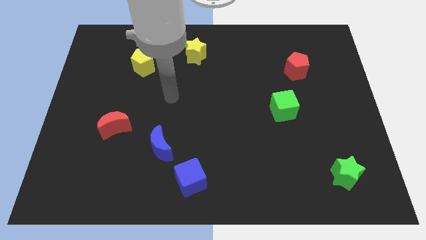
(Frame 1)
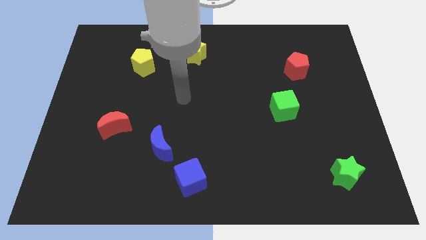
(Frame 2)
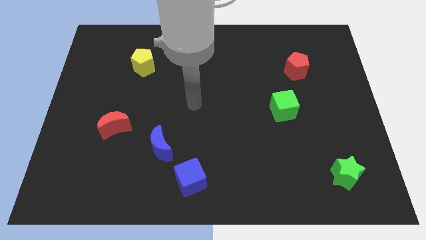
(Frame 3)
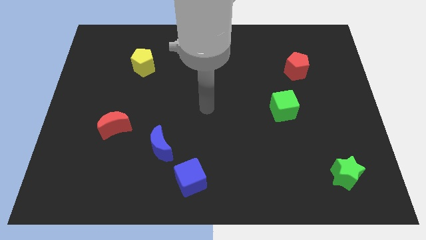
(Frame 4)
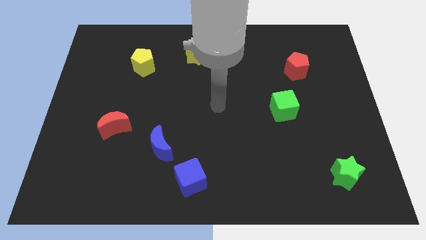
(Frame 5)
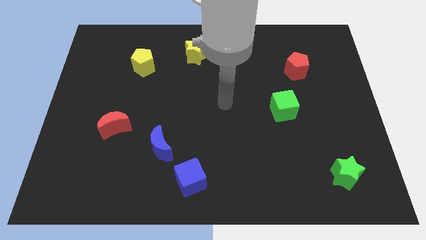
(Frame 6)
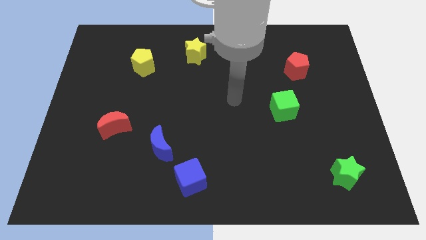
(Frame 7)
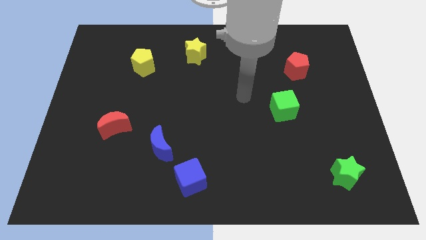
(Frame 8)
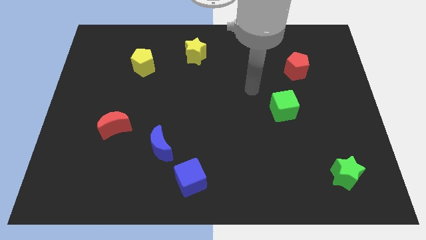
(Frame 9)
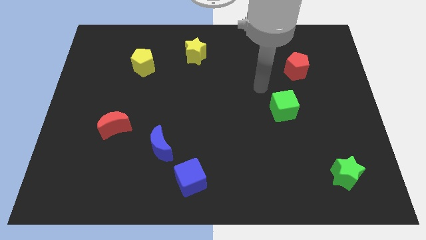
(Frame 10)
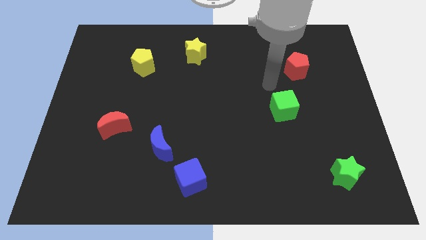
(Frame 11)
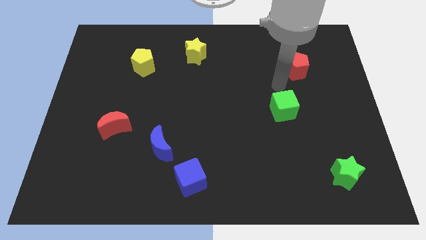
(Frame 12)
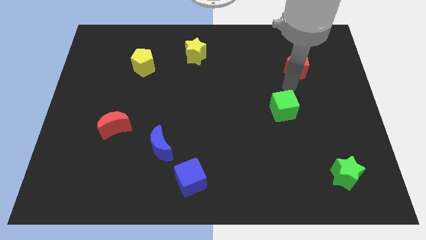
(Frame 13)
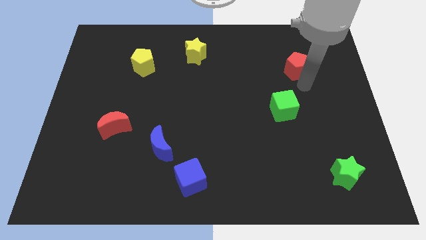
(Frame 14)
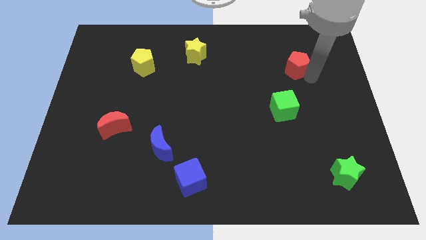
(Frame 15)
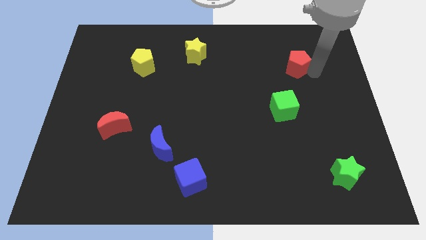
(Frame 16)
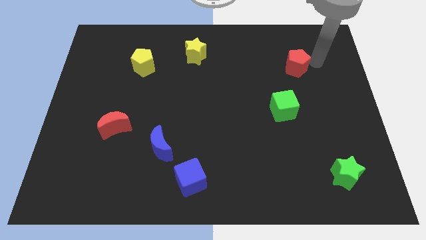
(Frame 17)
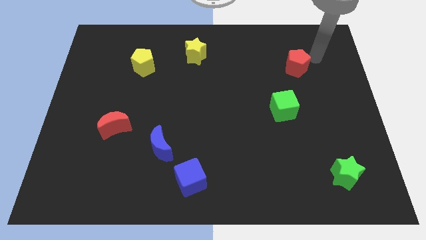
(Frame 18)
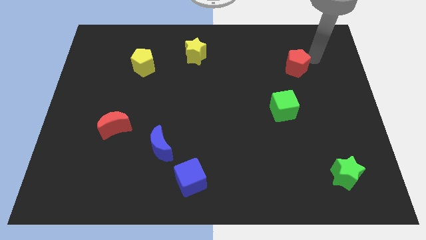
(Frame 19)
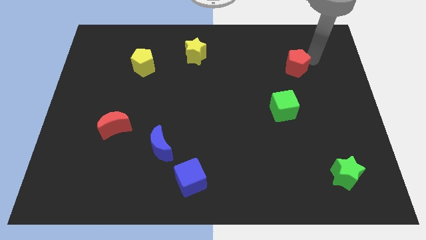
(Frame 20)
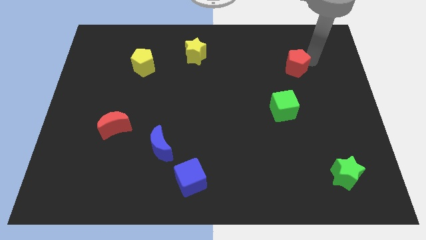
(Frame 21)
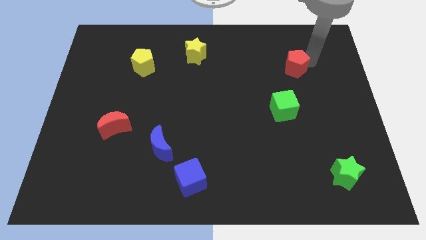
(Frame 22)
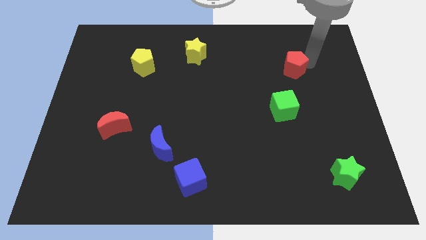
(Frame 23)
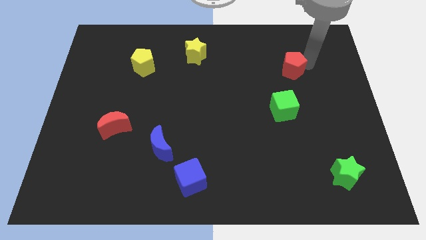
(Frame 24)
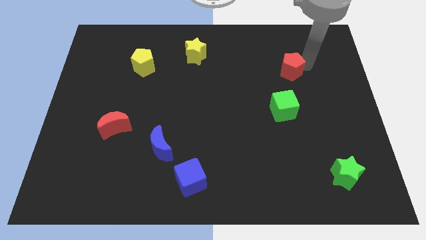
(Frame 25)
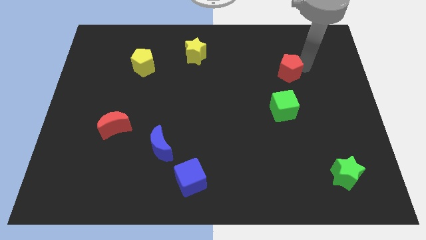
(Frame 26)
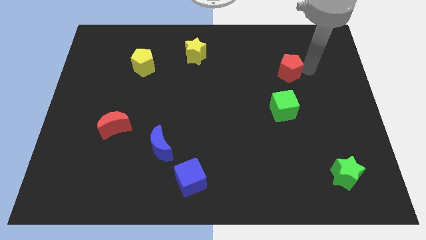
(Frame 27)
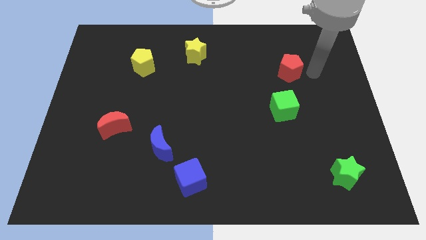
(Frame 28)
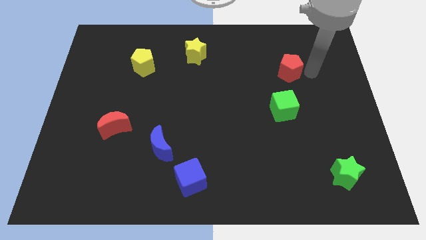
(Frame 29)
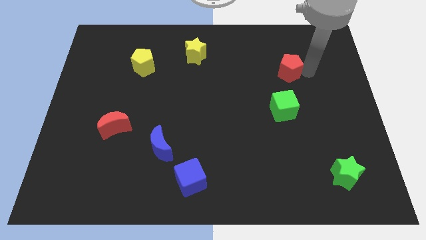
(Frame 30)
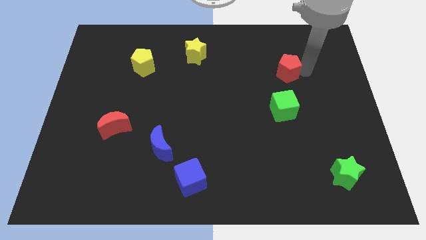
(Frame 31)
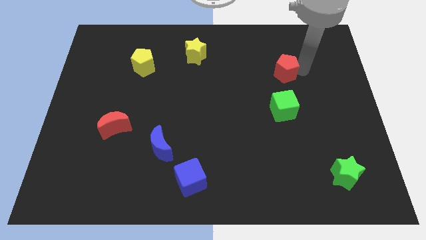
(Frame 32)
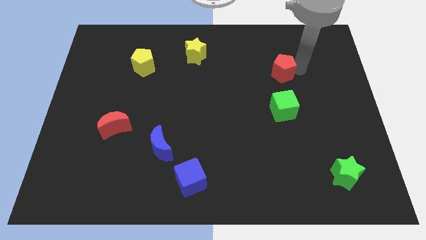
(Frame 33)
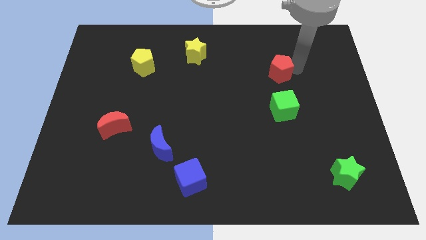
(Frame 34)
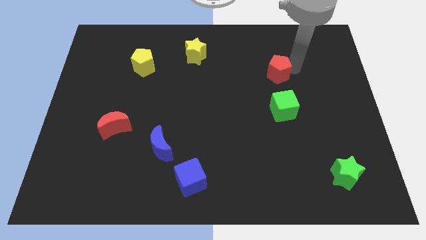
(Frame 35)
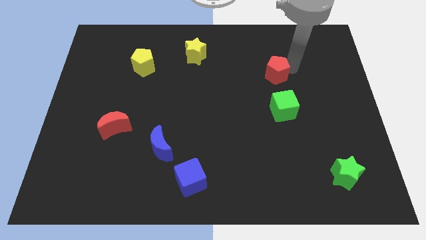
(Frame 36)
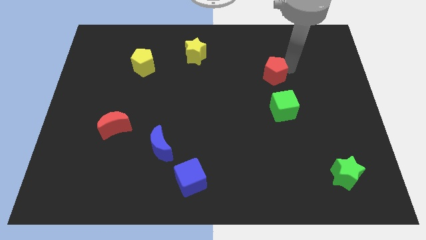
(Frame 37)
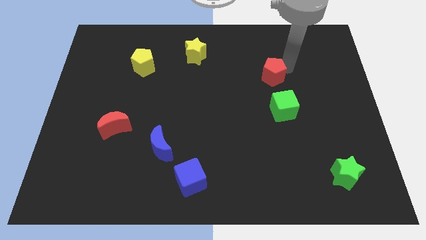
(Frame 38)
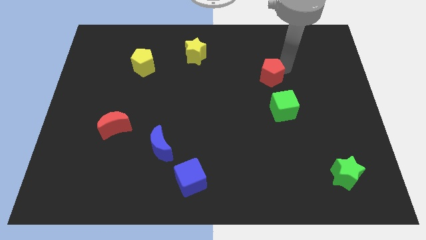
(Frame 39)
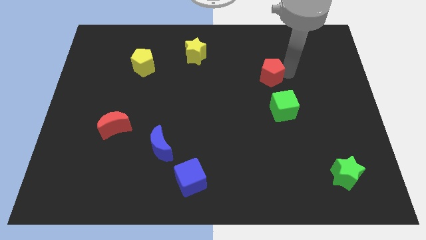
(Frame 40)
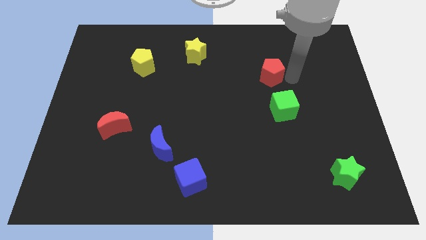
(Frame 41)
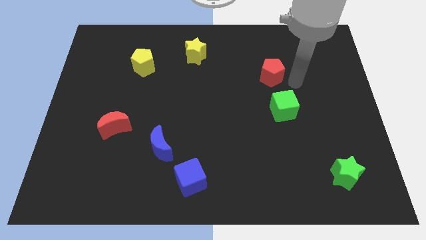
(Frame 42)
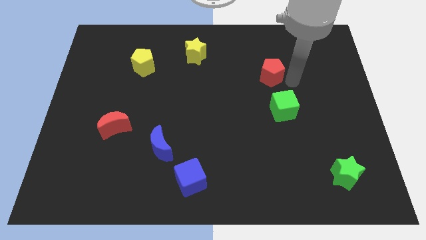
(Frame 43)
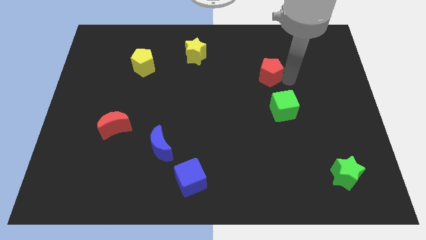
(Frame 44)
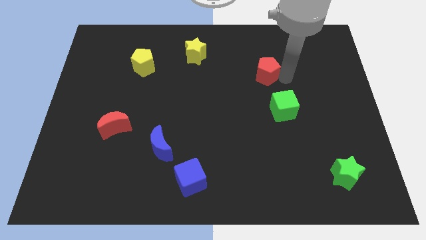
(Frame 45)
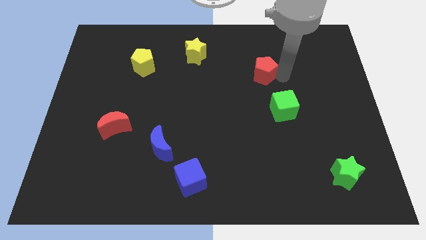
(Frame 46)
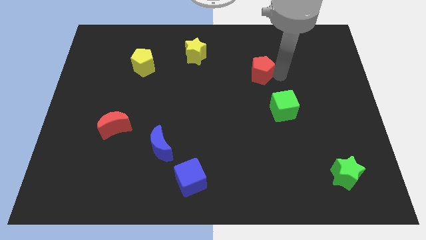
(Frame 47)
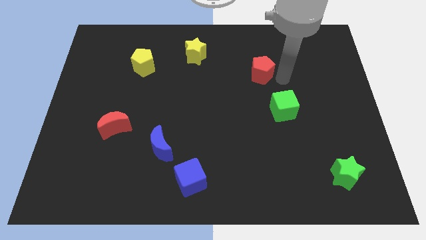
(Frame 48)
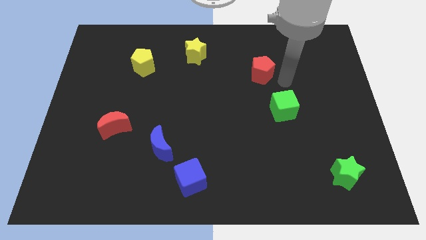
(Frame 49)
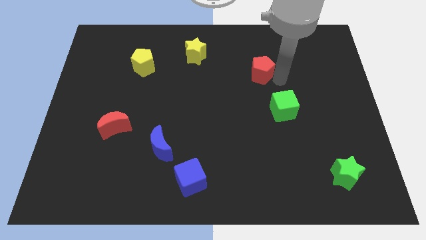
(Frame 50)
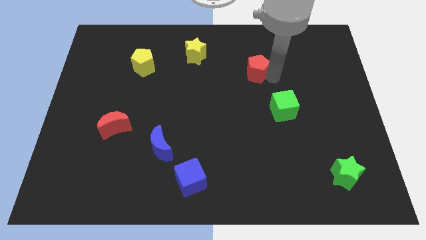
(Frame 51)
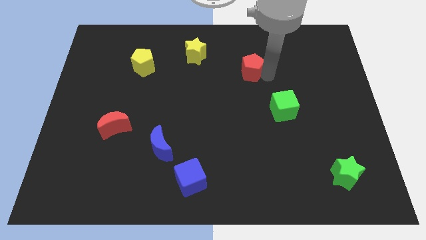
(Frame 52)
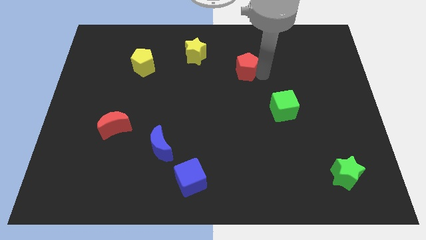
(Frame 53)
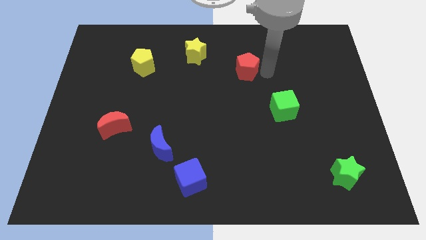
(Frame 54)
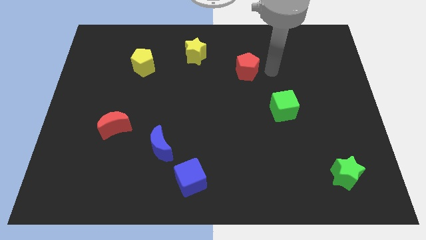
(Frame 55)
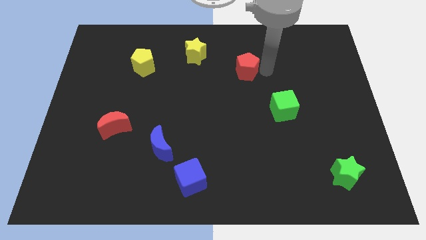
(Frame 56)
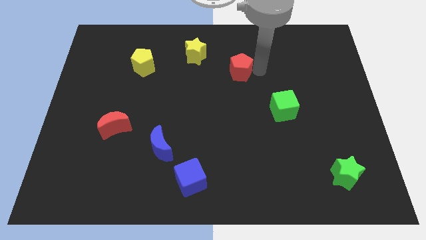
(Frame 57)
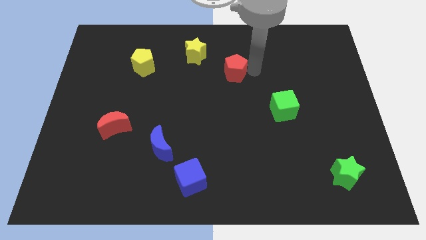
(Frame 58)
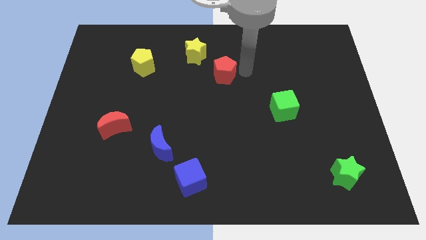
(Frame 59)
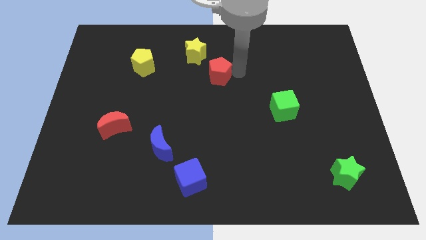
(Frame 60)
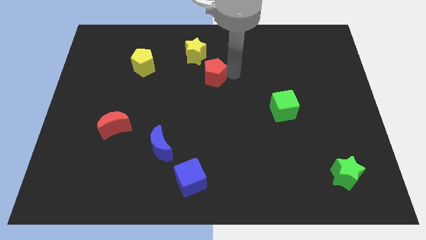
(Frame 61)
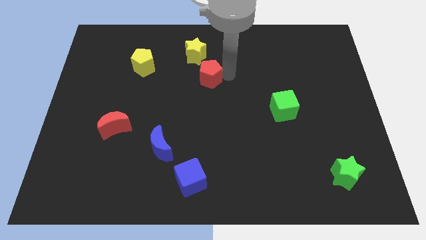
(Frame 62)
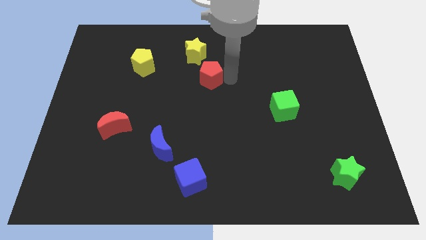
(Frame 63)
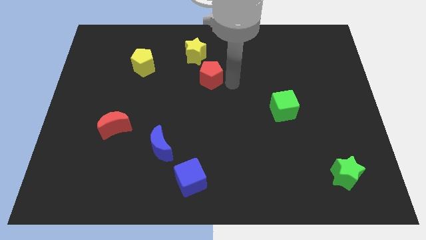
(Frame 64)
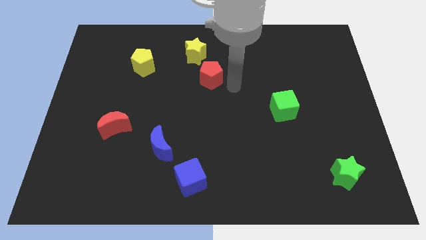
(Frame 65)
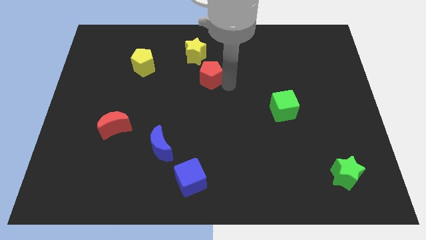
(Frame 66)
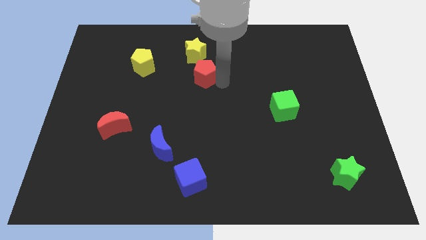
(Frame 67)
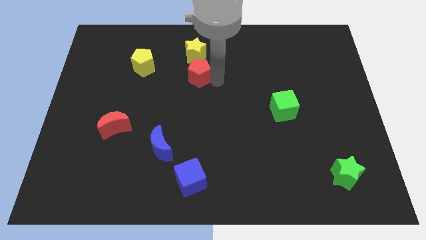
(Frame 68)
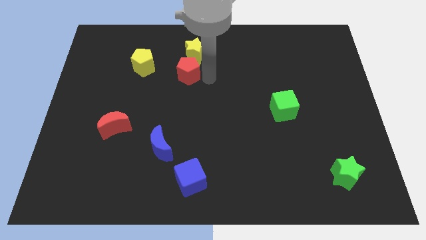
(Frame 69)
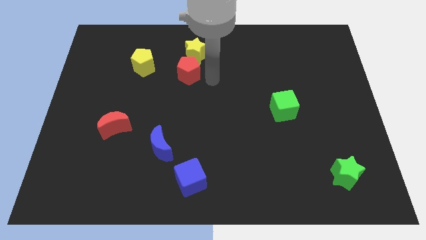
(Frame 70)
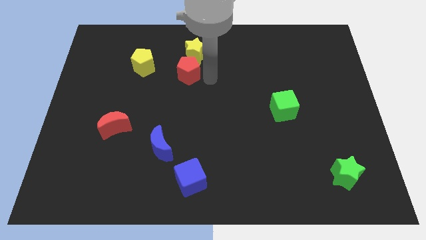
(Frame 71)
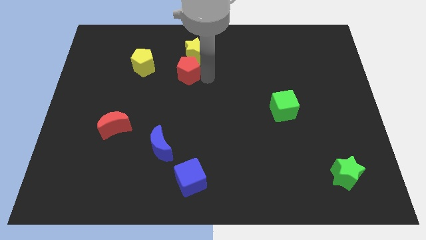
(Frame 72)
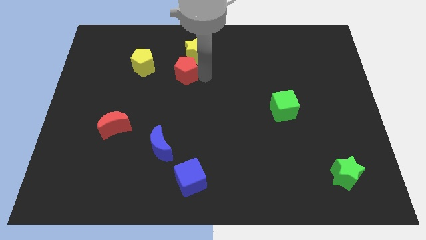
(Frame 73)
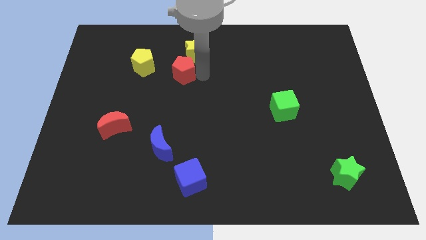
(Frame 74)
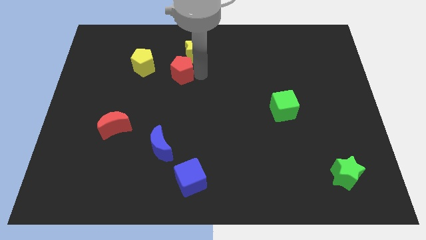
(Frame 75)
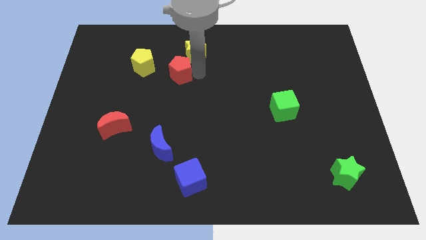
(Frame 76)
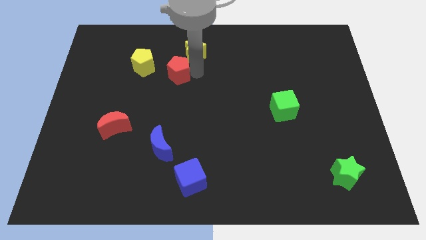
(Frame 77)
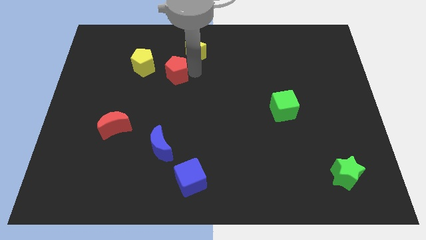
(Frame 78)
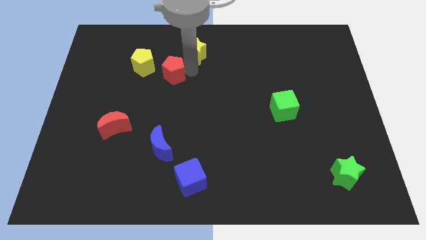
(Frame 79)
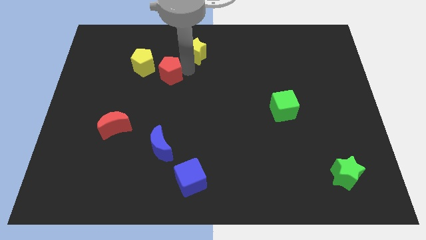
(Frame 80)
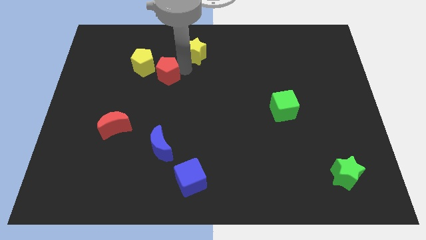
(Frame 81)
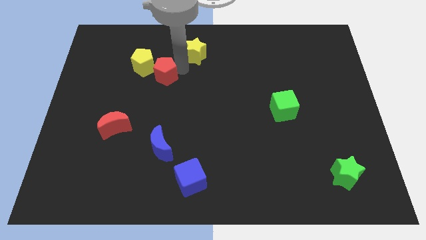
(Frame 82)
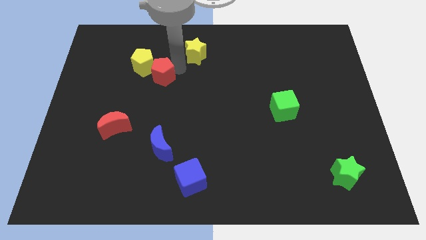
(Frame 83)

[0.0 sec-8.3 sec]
move the red pentagon close to the yellow pentagon
